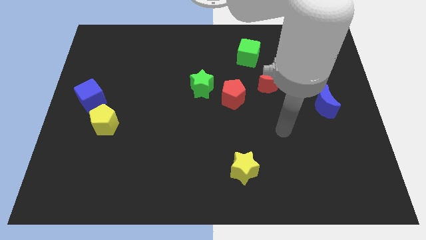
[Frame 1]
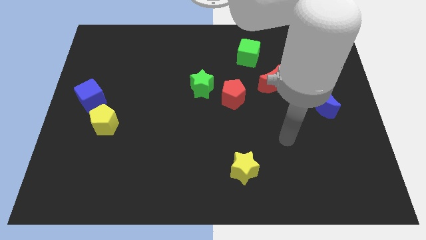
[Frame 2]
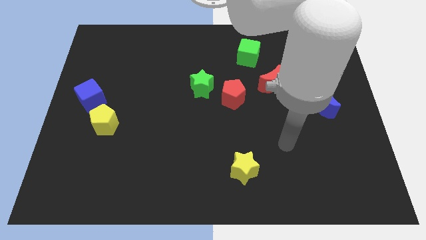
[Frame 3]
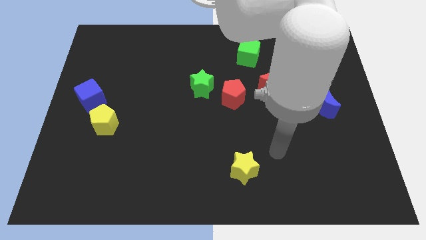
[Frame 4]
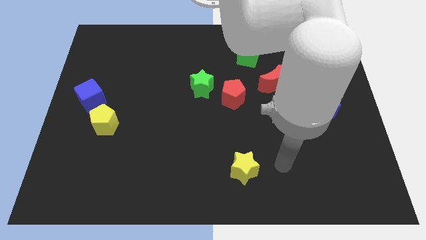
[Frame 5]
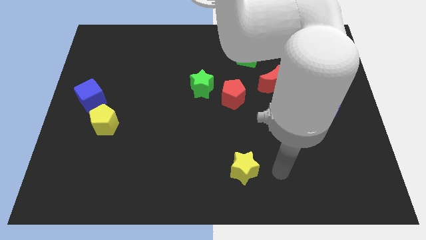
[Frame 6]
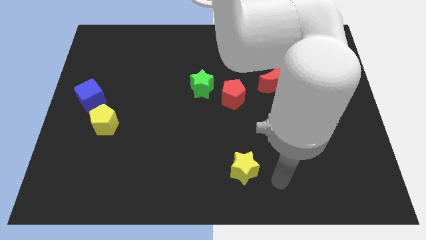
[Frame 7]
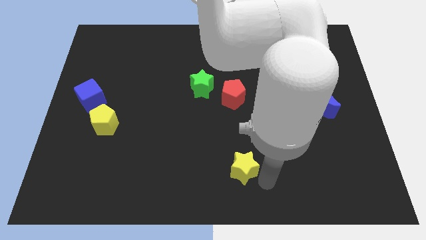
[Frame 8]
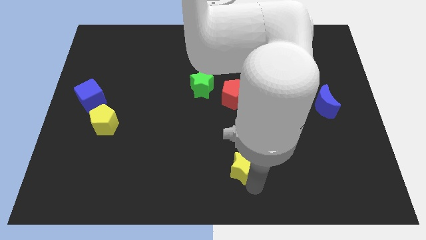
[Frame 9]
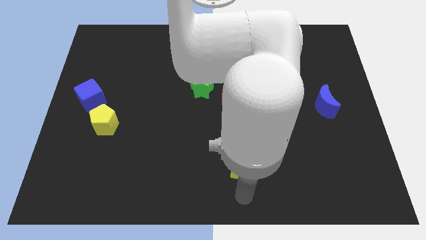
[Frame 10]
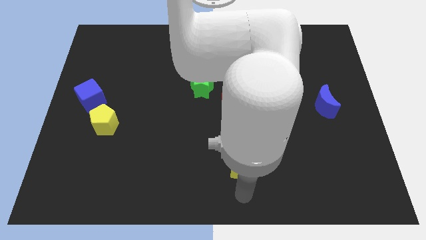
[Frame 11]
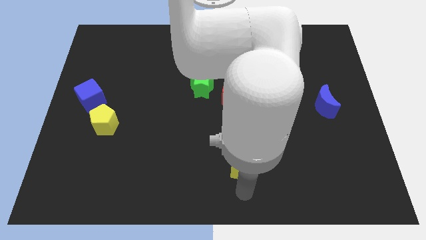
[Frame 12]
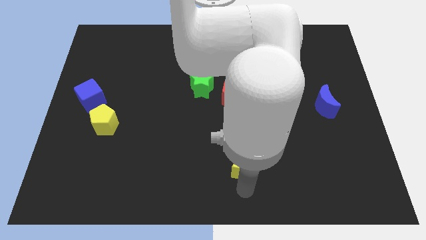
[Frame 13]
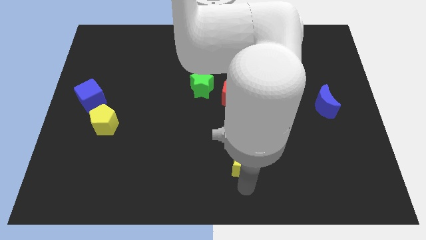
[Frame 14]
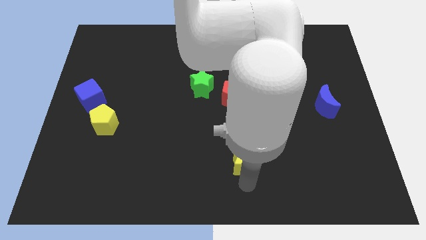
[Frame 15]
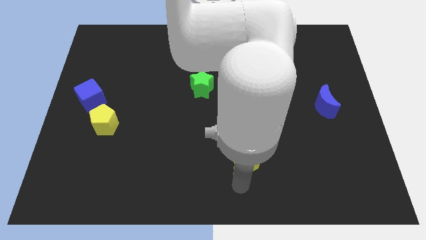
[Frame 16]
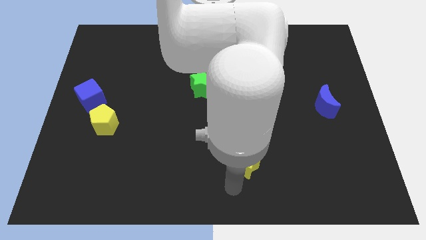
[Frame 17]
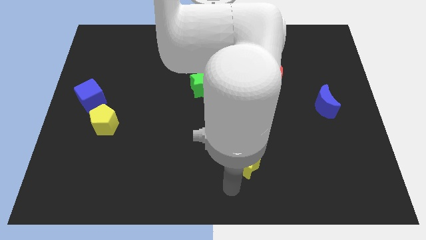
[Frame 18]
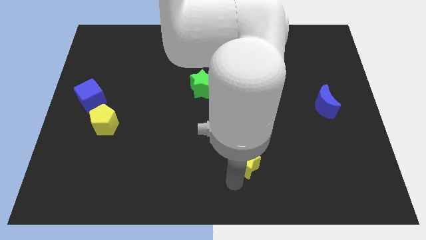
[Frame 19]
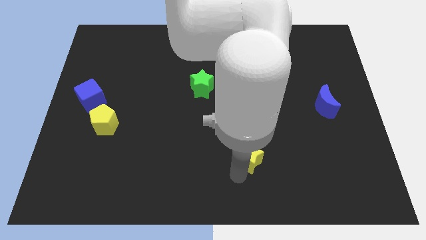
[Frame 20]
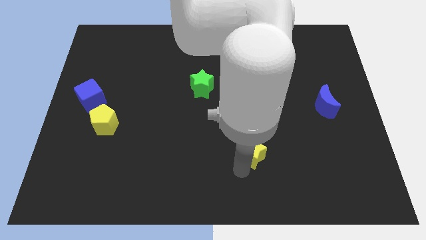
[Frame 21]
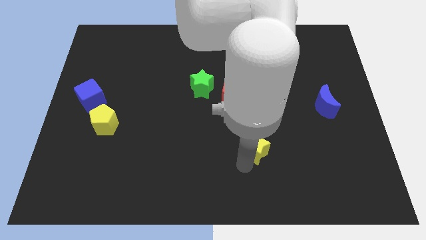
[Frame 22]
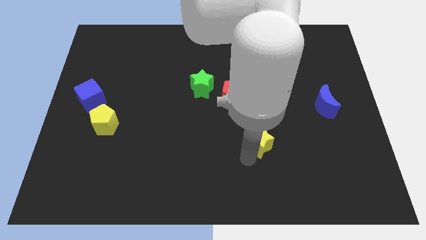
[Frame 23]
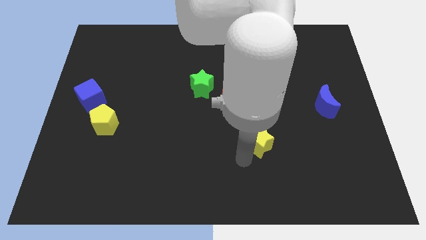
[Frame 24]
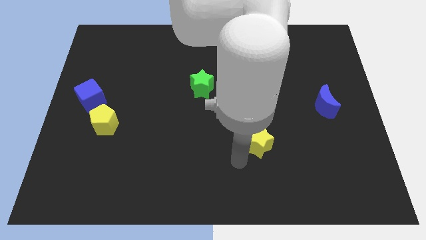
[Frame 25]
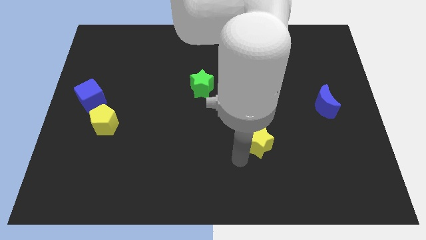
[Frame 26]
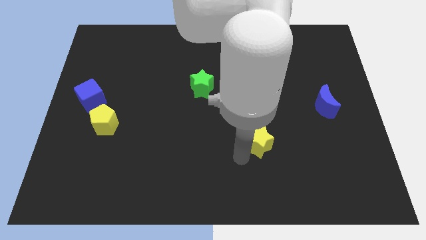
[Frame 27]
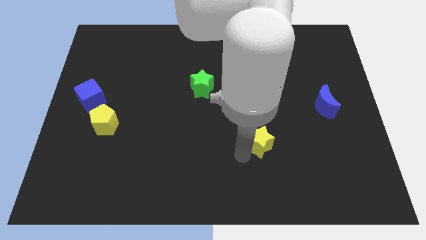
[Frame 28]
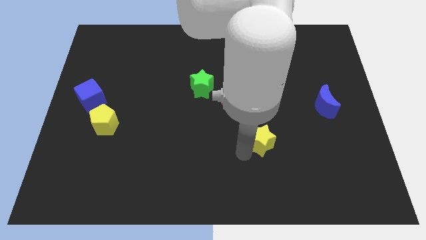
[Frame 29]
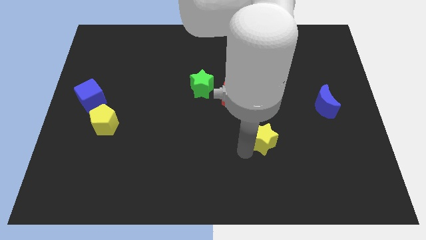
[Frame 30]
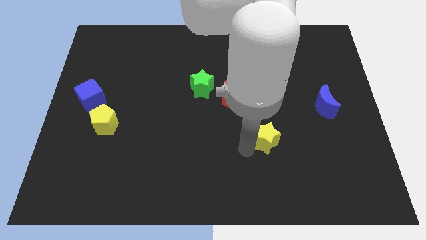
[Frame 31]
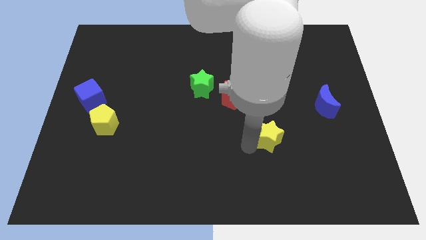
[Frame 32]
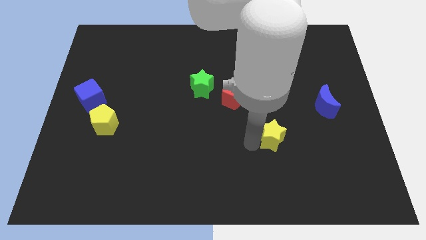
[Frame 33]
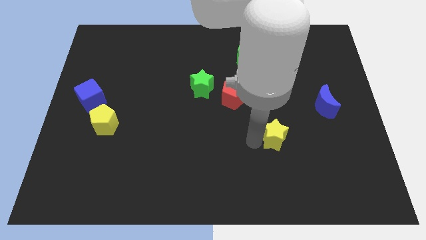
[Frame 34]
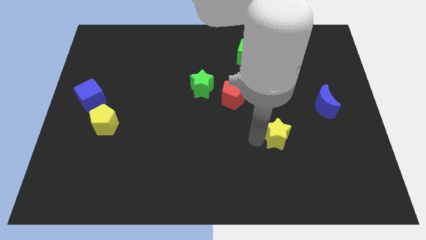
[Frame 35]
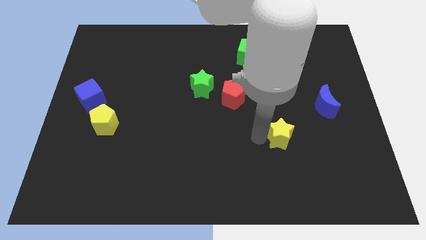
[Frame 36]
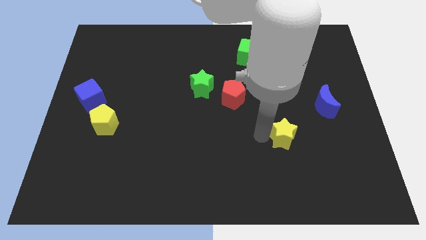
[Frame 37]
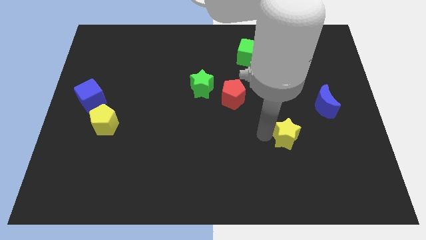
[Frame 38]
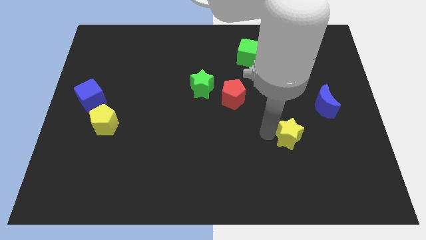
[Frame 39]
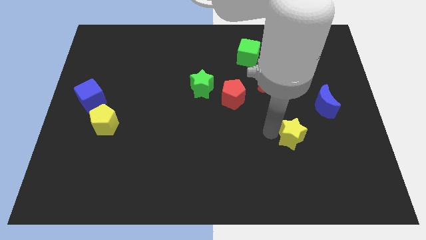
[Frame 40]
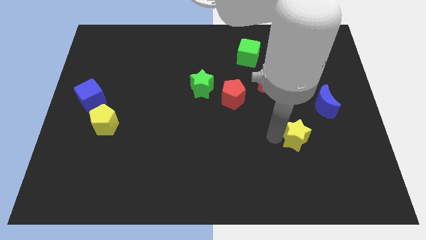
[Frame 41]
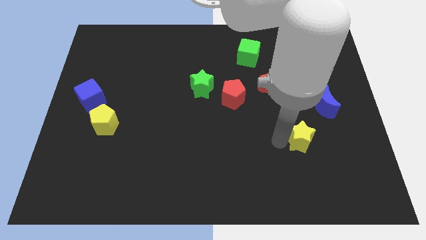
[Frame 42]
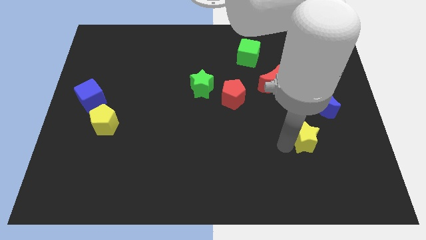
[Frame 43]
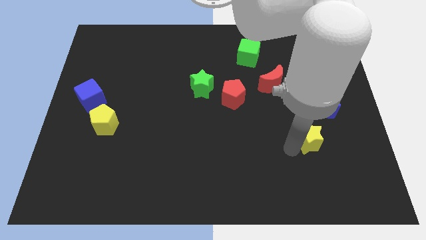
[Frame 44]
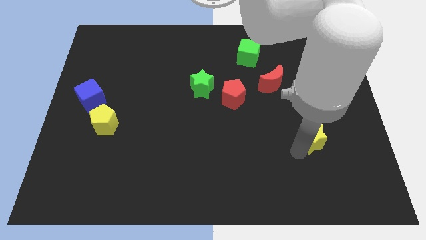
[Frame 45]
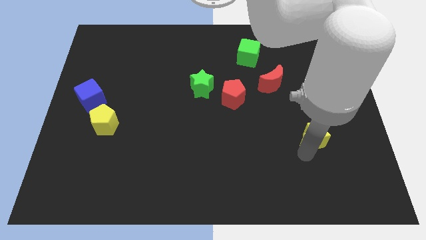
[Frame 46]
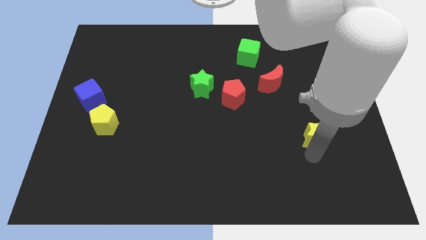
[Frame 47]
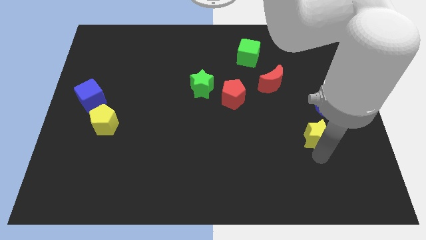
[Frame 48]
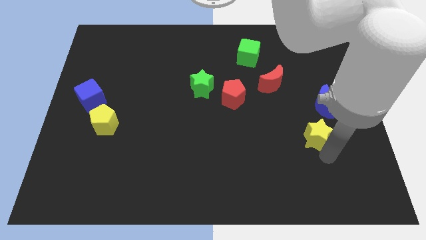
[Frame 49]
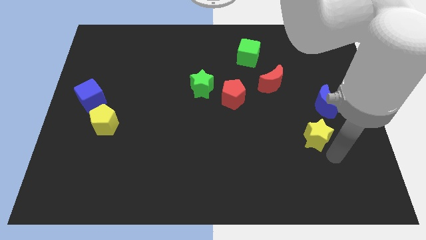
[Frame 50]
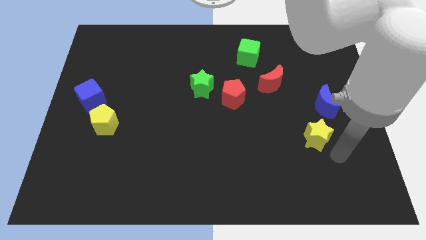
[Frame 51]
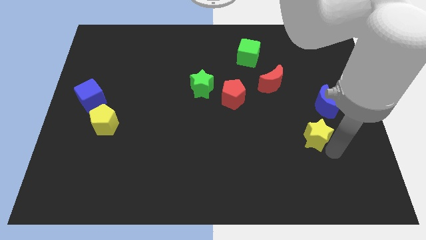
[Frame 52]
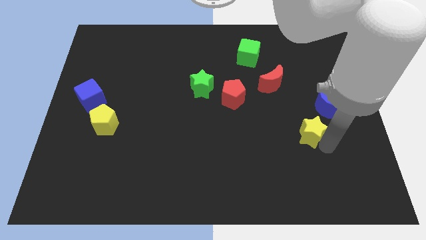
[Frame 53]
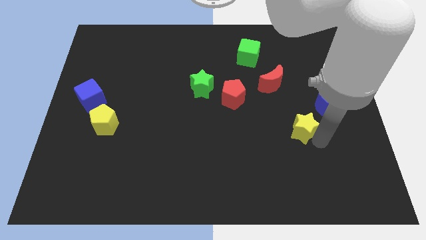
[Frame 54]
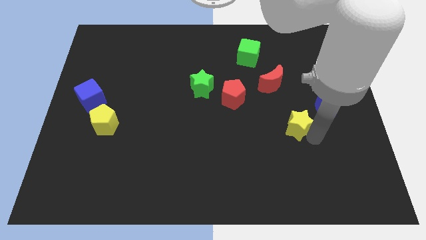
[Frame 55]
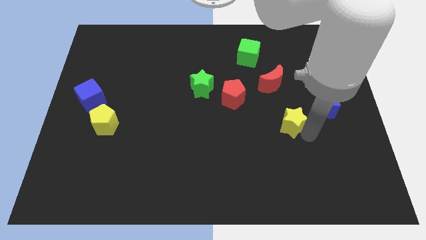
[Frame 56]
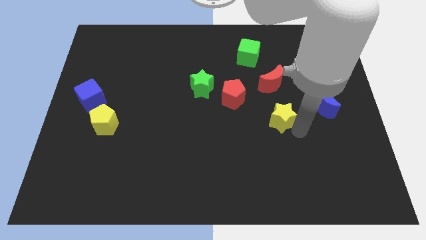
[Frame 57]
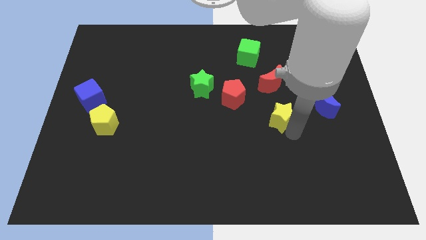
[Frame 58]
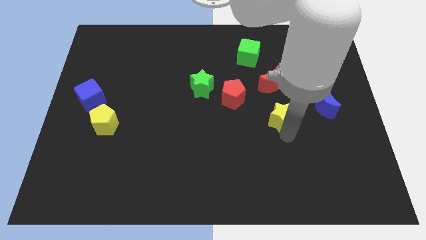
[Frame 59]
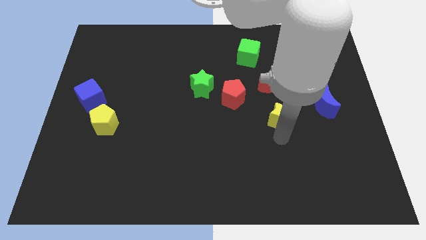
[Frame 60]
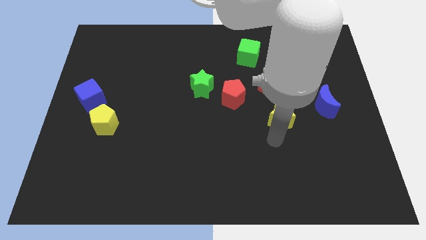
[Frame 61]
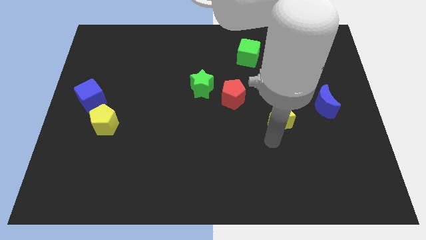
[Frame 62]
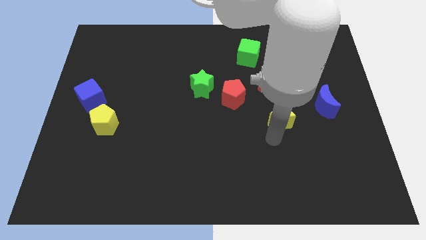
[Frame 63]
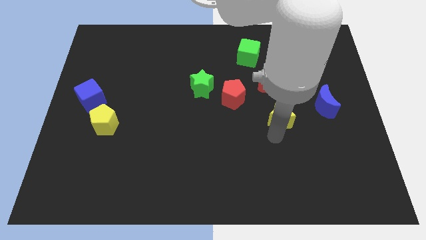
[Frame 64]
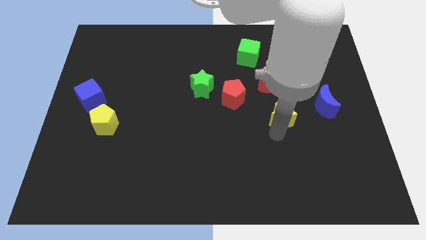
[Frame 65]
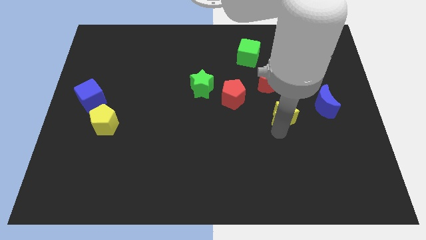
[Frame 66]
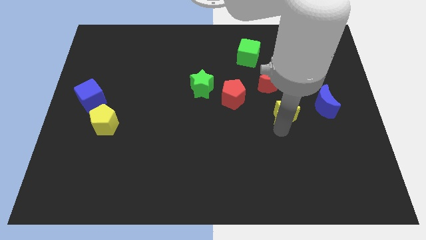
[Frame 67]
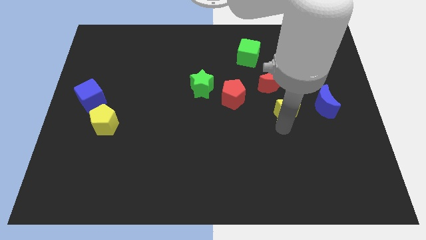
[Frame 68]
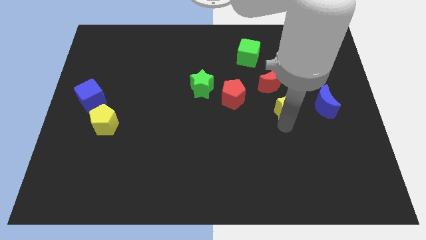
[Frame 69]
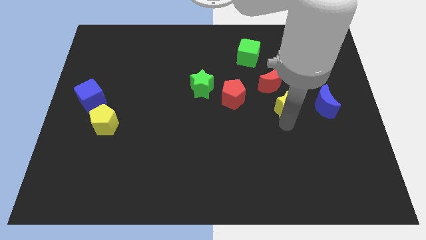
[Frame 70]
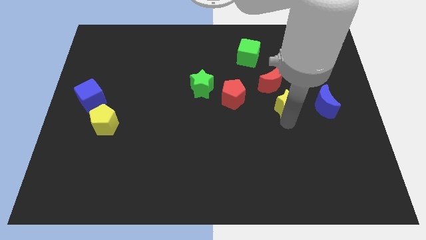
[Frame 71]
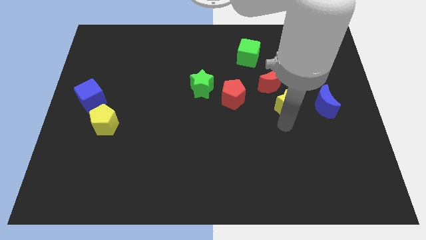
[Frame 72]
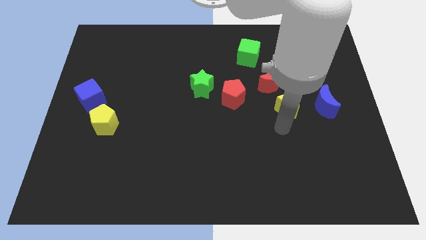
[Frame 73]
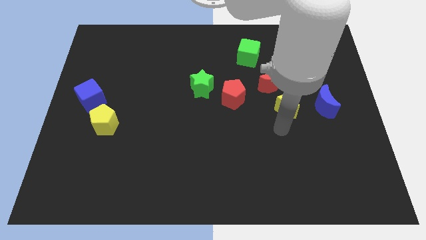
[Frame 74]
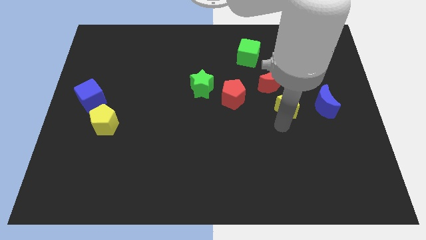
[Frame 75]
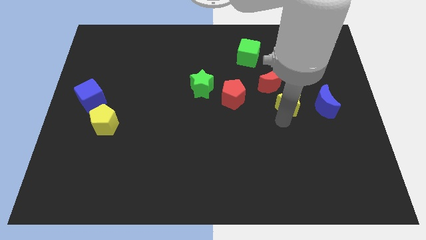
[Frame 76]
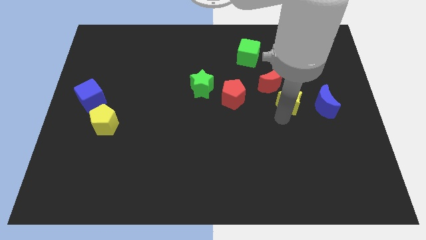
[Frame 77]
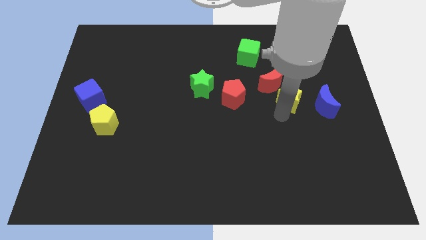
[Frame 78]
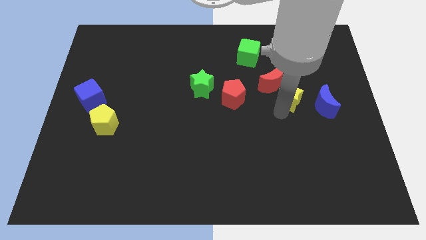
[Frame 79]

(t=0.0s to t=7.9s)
push the yellow star diagonally up and to the left of the blue moon

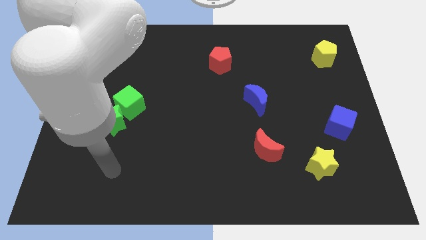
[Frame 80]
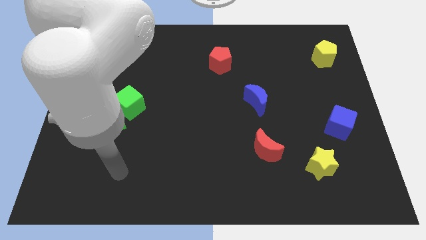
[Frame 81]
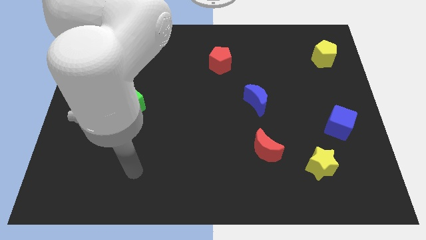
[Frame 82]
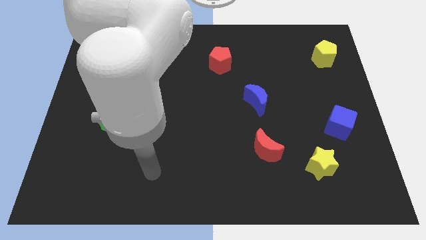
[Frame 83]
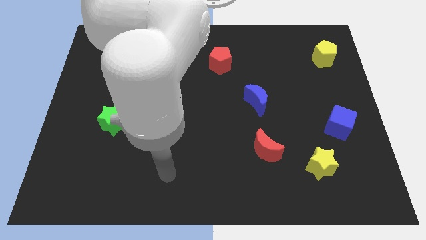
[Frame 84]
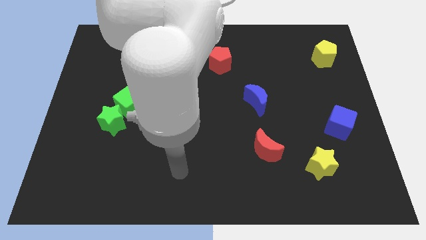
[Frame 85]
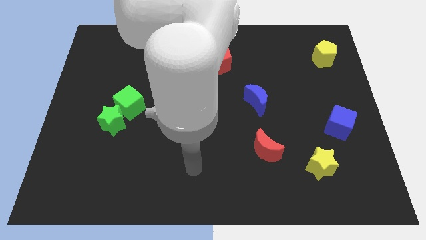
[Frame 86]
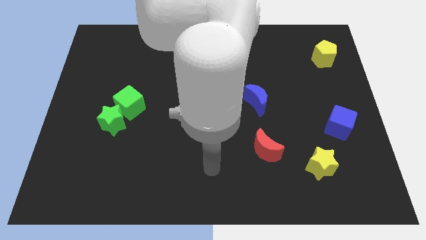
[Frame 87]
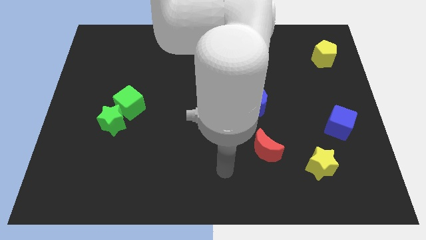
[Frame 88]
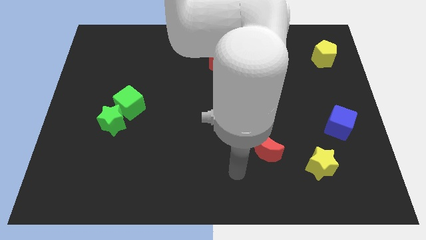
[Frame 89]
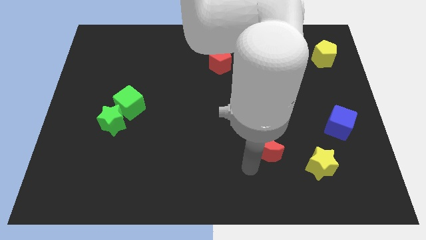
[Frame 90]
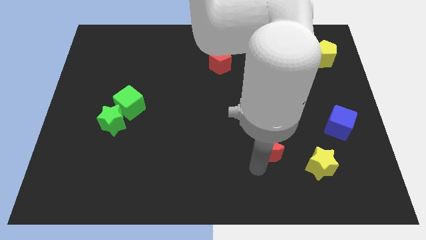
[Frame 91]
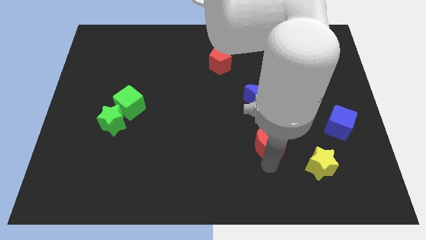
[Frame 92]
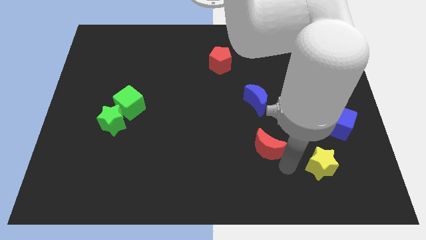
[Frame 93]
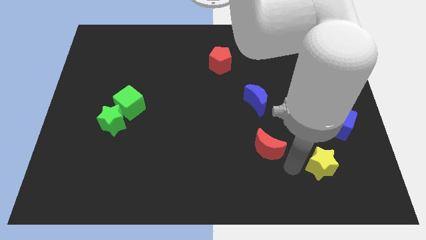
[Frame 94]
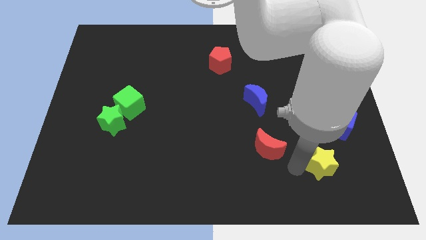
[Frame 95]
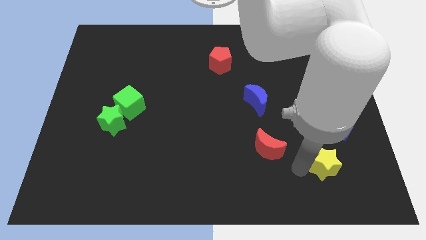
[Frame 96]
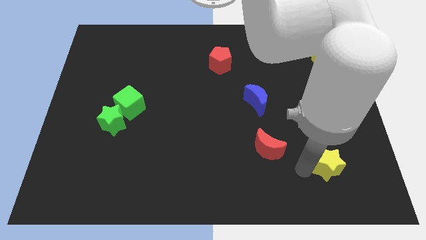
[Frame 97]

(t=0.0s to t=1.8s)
push the yellow star to the bottom of the blue cube
